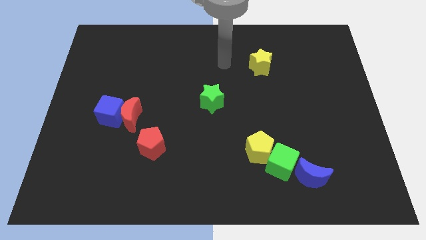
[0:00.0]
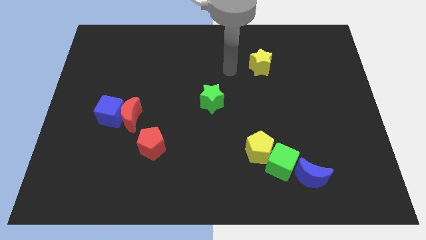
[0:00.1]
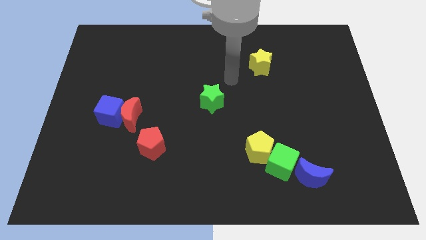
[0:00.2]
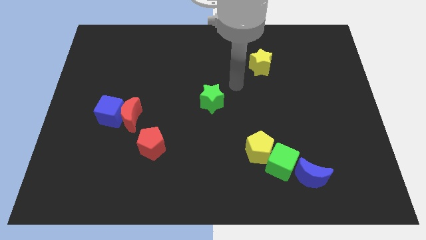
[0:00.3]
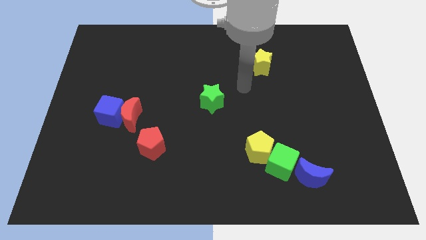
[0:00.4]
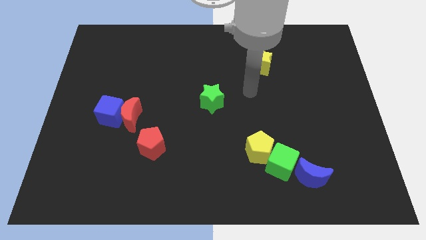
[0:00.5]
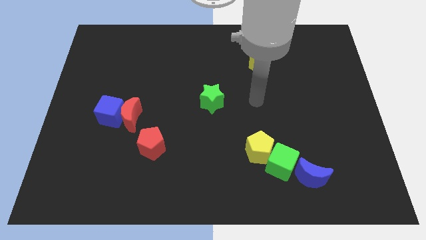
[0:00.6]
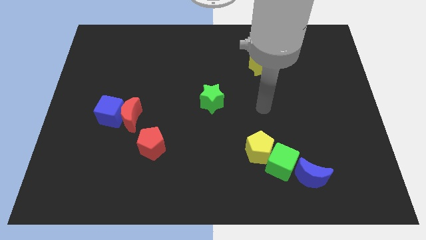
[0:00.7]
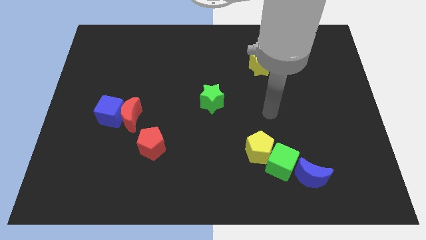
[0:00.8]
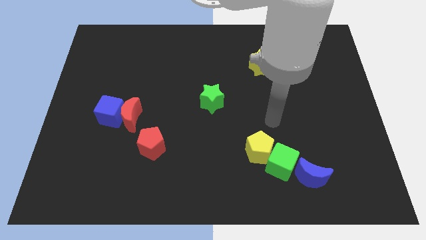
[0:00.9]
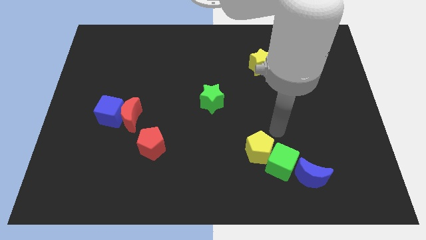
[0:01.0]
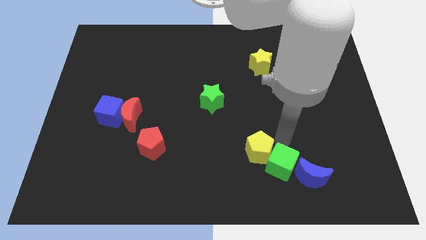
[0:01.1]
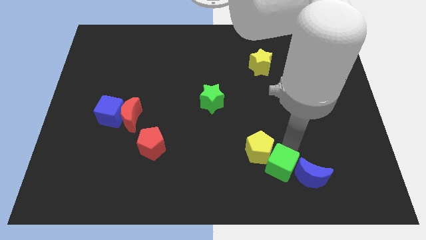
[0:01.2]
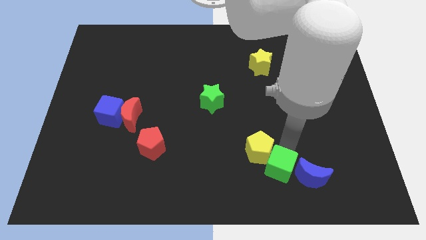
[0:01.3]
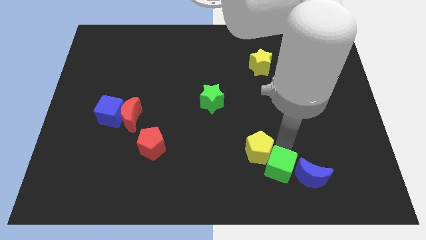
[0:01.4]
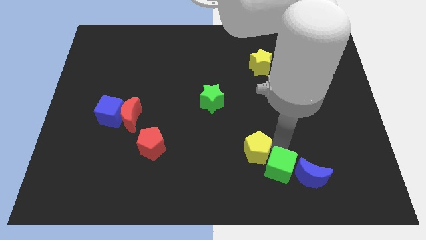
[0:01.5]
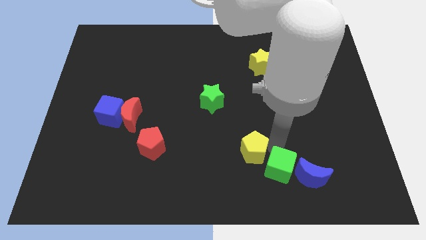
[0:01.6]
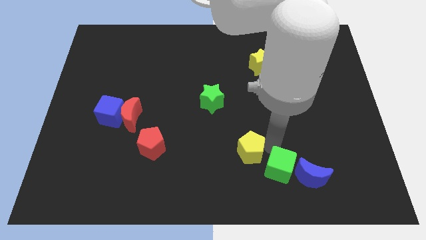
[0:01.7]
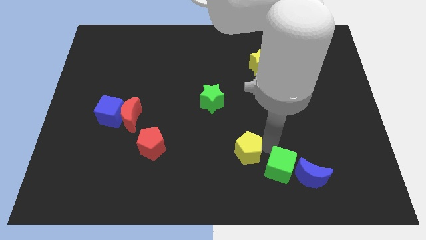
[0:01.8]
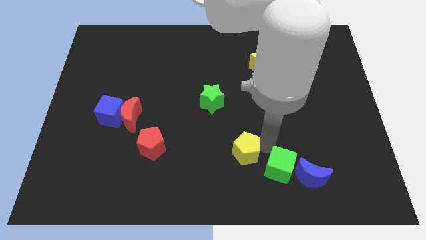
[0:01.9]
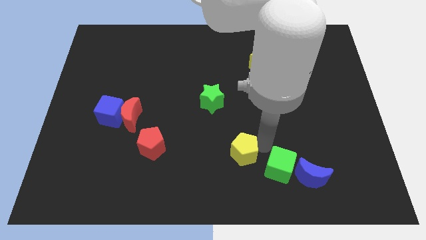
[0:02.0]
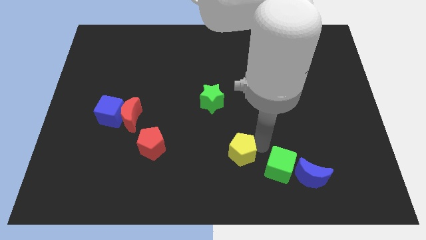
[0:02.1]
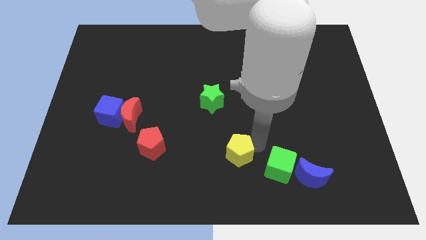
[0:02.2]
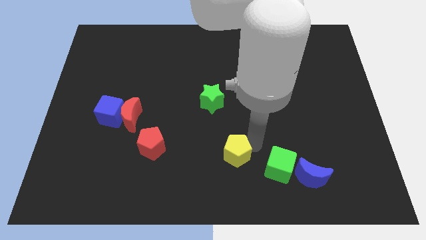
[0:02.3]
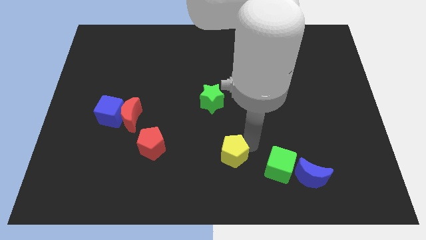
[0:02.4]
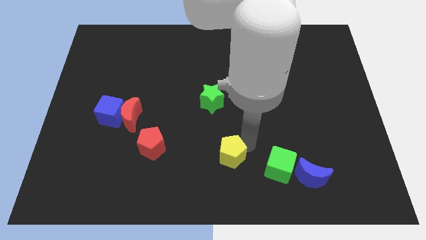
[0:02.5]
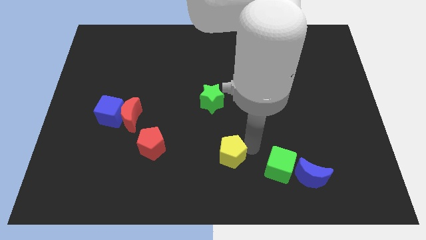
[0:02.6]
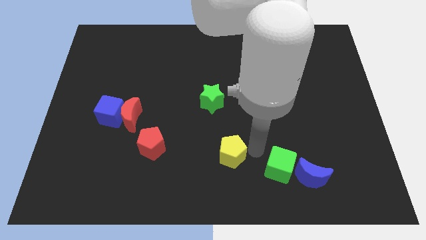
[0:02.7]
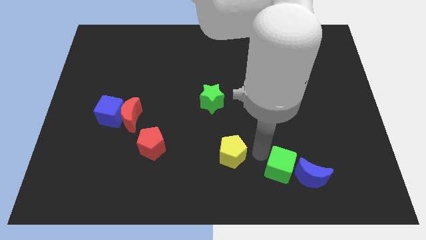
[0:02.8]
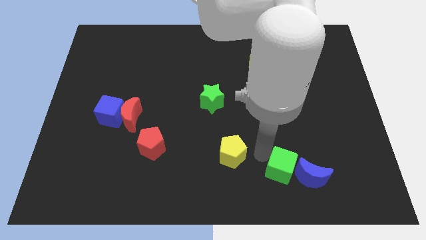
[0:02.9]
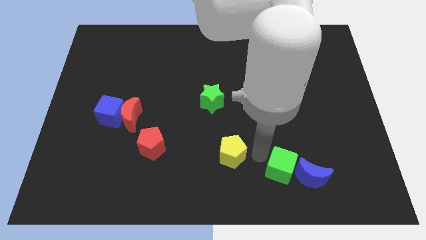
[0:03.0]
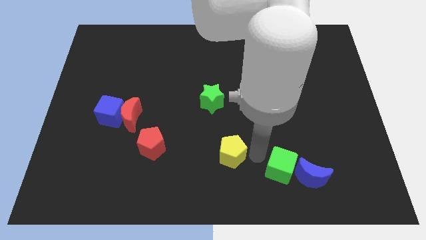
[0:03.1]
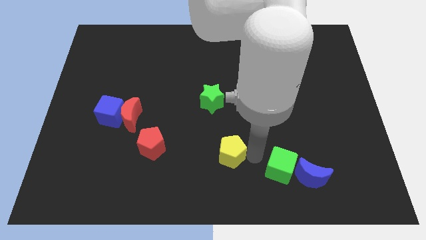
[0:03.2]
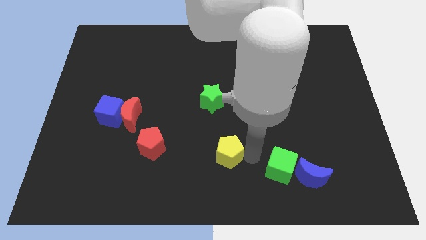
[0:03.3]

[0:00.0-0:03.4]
move the yellow pentagon slightly to the left

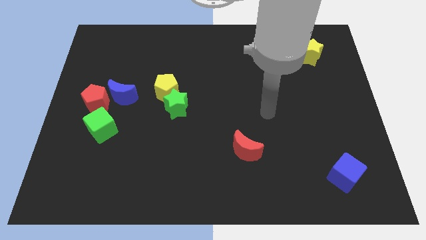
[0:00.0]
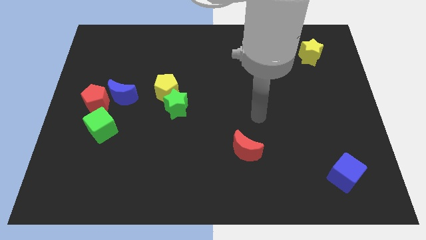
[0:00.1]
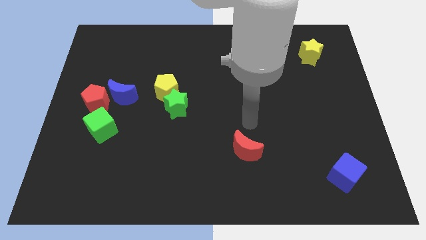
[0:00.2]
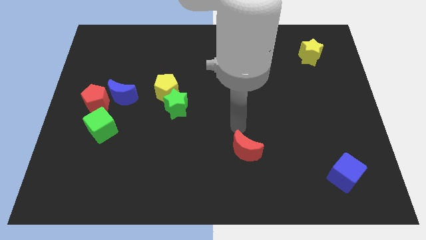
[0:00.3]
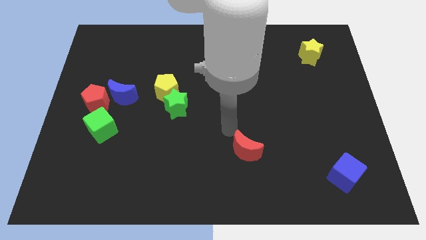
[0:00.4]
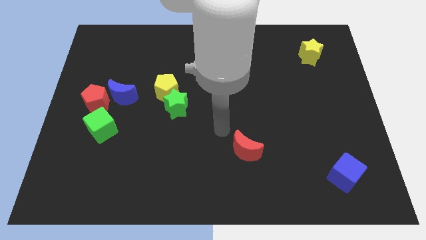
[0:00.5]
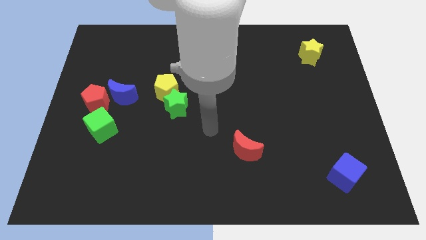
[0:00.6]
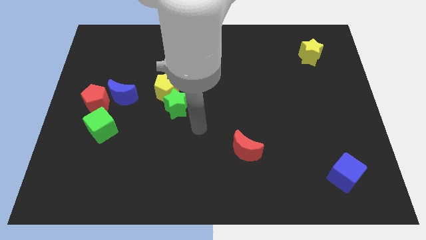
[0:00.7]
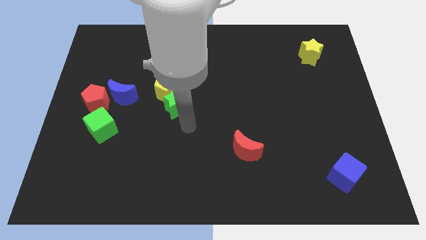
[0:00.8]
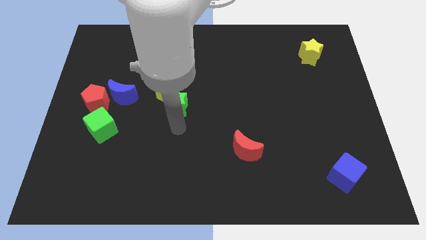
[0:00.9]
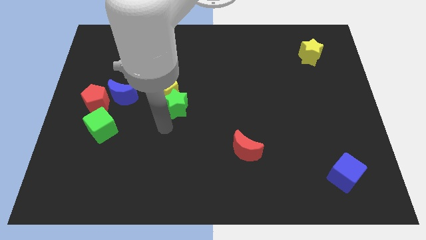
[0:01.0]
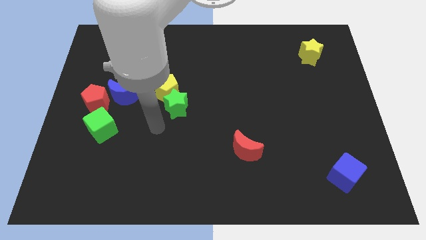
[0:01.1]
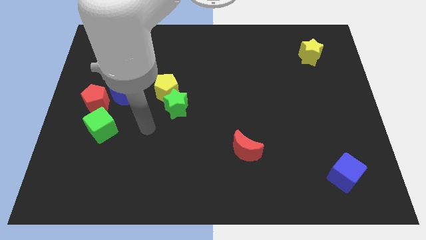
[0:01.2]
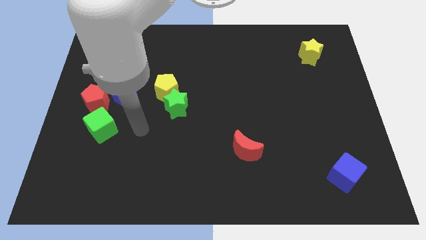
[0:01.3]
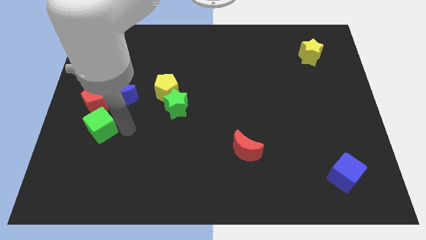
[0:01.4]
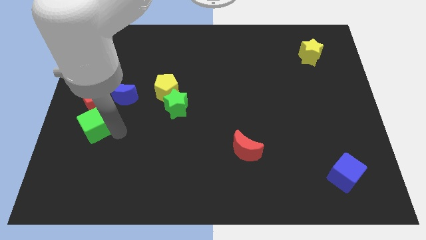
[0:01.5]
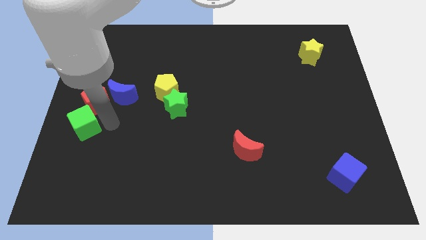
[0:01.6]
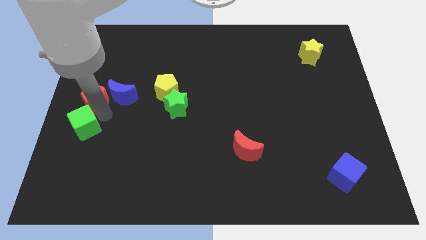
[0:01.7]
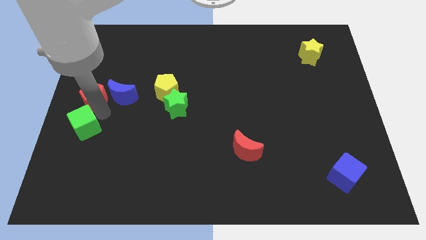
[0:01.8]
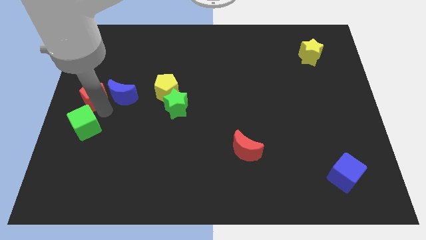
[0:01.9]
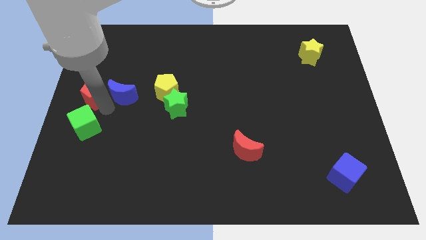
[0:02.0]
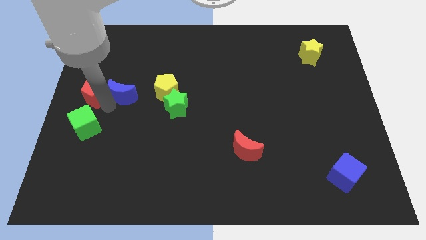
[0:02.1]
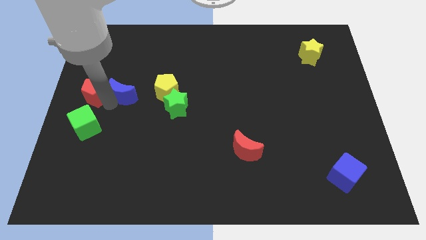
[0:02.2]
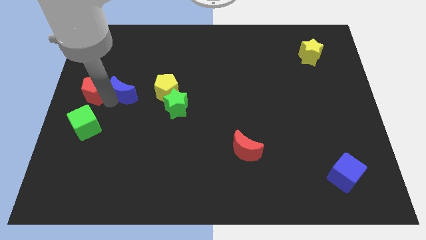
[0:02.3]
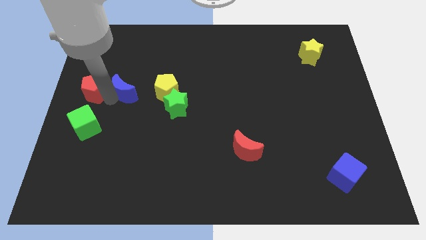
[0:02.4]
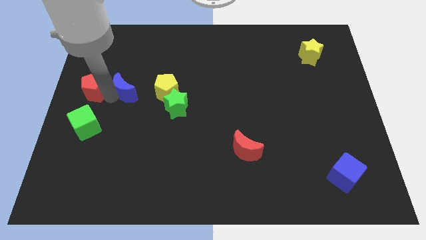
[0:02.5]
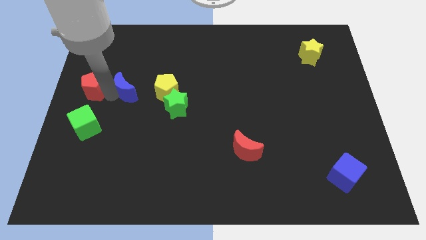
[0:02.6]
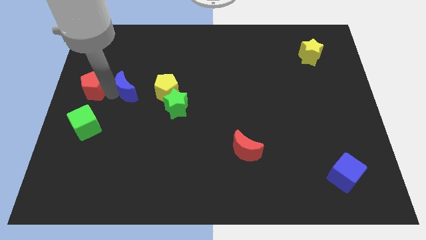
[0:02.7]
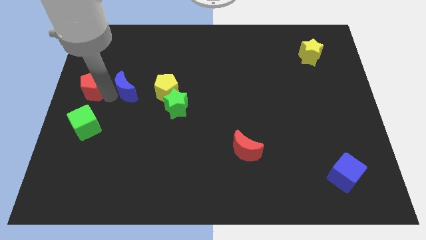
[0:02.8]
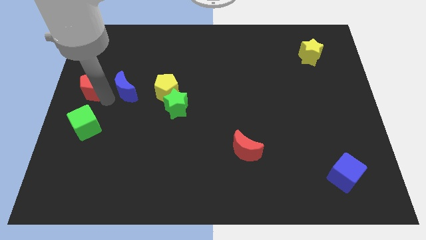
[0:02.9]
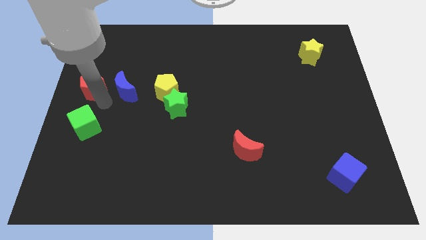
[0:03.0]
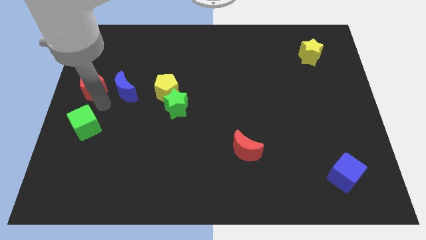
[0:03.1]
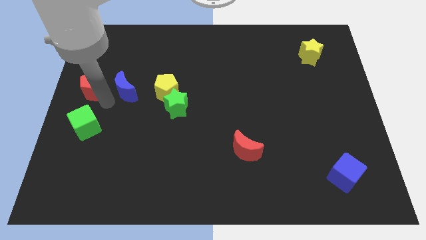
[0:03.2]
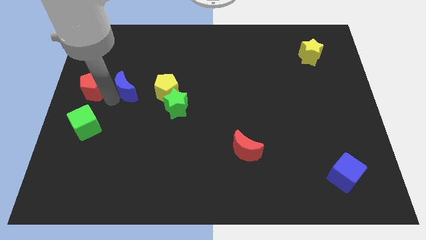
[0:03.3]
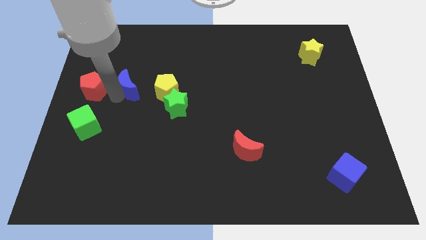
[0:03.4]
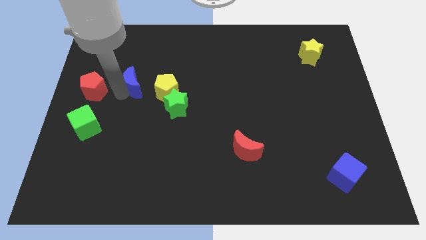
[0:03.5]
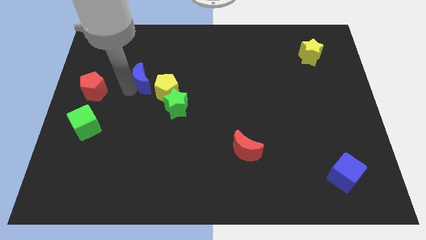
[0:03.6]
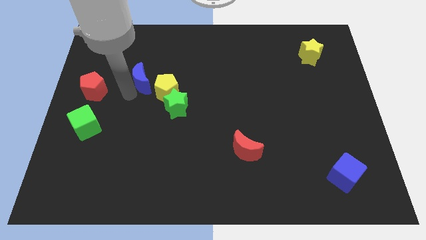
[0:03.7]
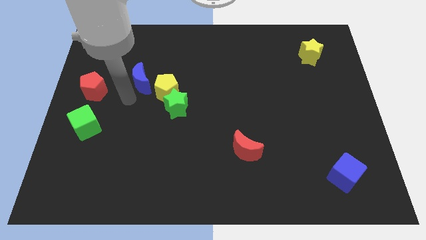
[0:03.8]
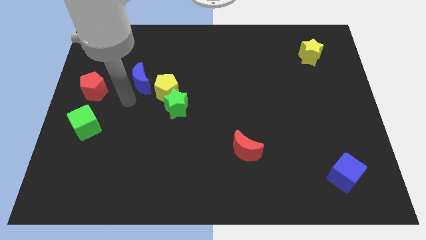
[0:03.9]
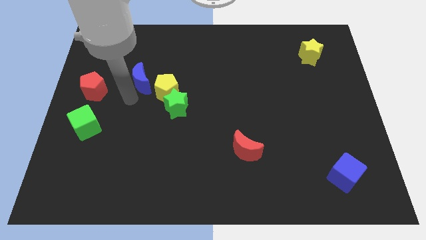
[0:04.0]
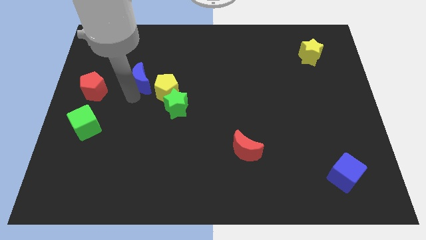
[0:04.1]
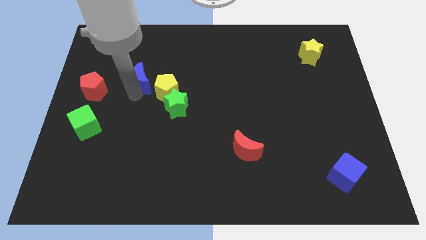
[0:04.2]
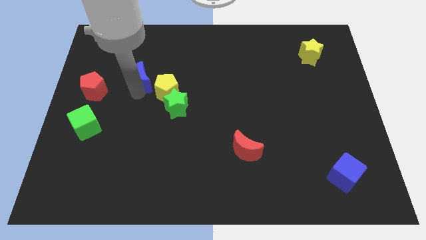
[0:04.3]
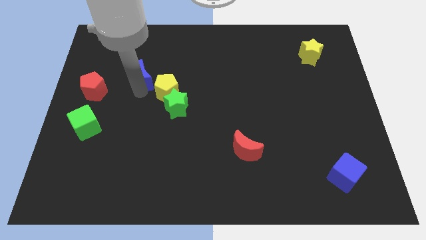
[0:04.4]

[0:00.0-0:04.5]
slightly slide the blue moon upwards and then right

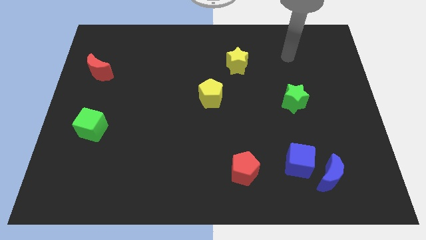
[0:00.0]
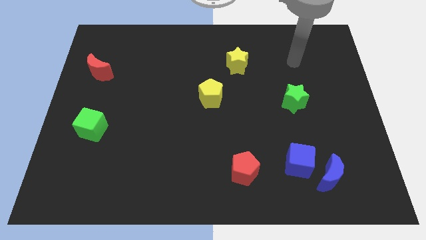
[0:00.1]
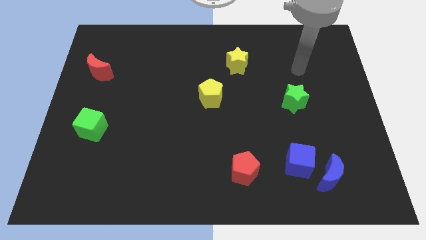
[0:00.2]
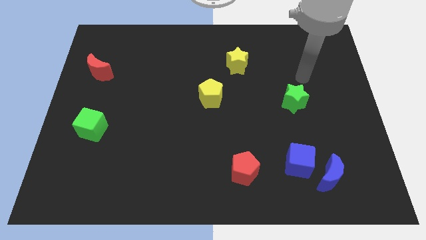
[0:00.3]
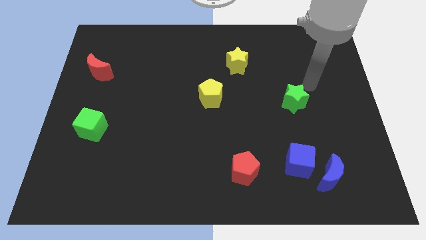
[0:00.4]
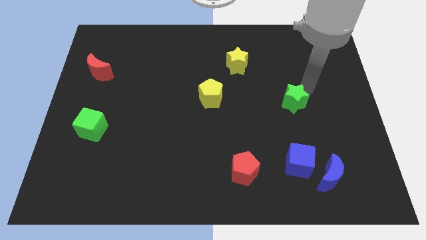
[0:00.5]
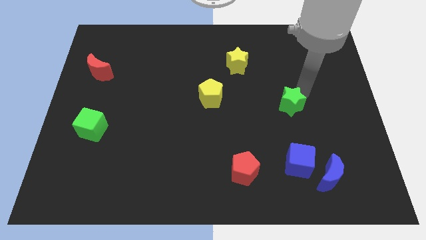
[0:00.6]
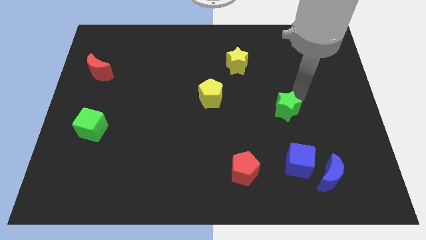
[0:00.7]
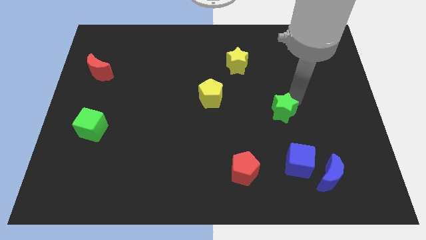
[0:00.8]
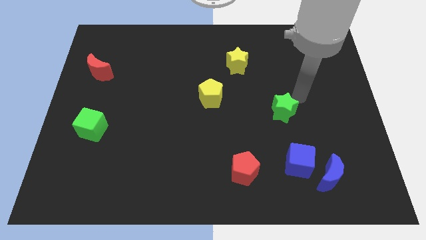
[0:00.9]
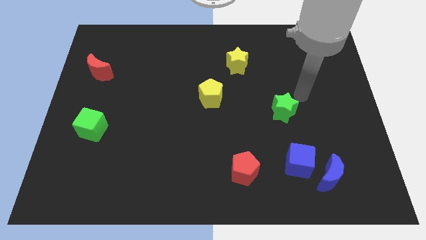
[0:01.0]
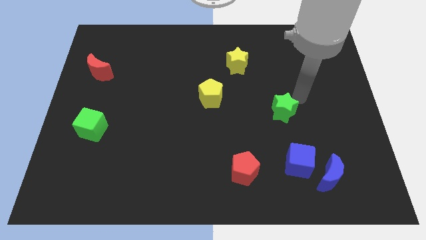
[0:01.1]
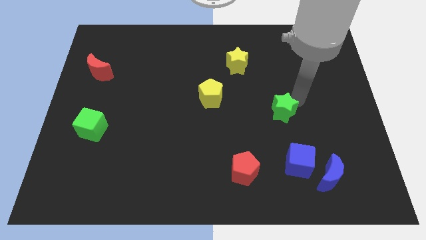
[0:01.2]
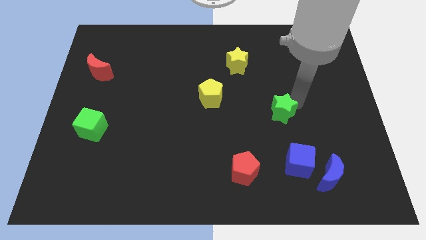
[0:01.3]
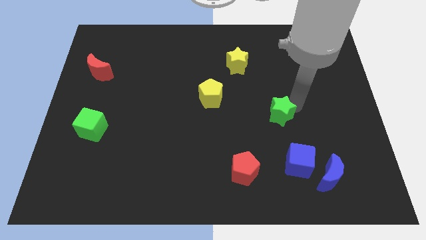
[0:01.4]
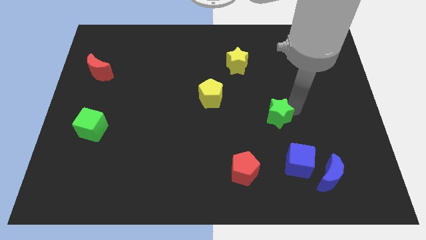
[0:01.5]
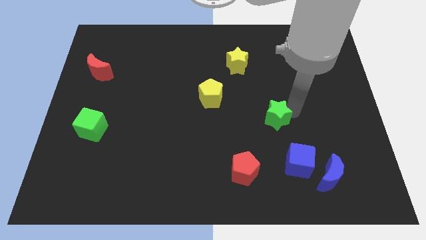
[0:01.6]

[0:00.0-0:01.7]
push the green star downwards and to the left diagonally a bit
